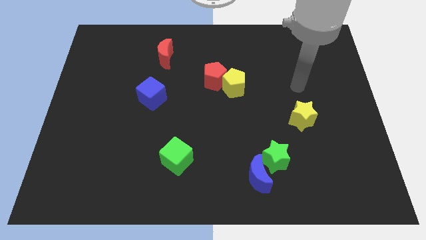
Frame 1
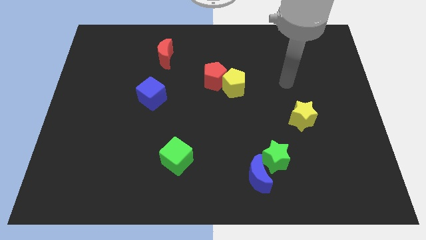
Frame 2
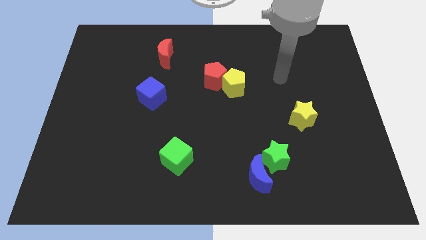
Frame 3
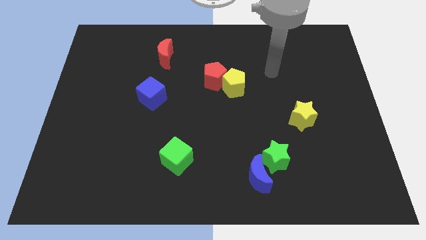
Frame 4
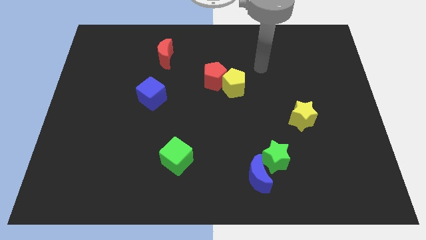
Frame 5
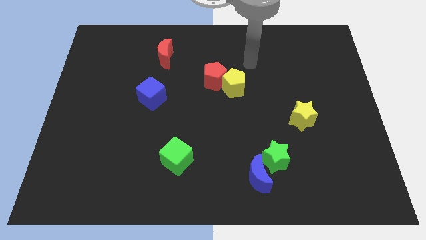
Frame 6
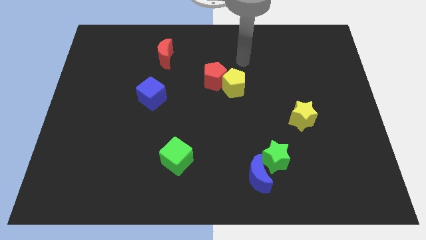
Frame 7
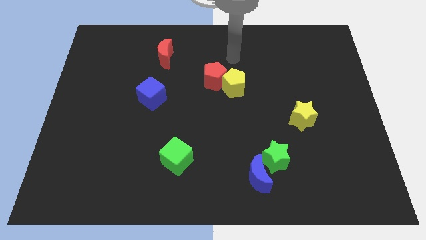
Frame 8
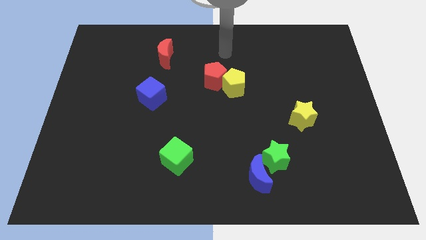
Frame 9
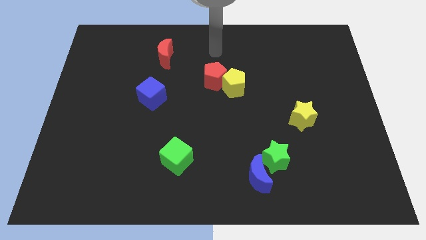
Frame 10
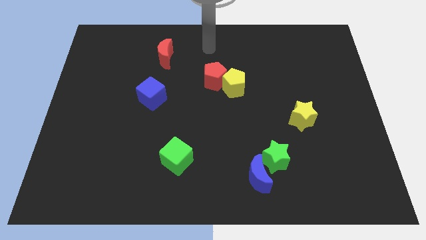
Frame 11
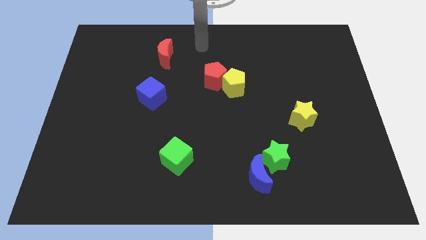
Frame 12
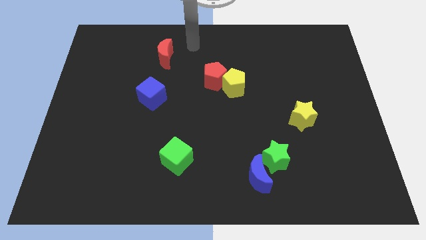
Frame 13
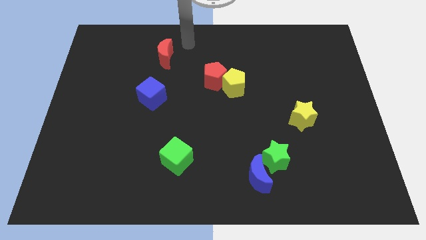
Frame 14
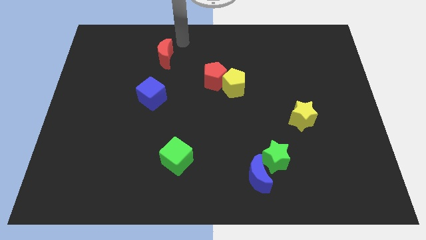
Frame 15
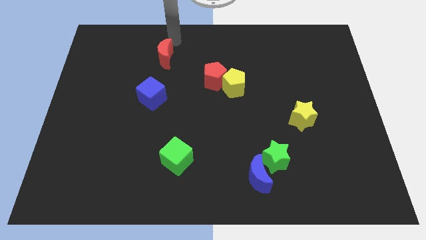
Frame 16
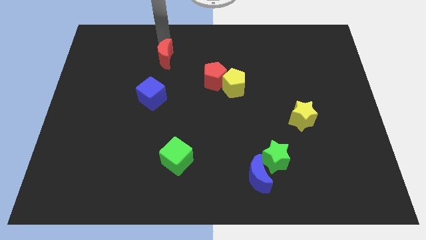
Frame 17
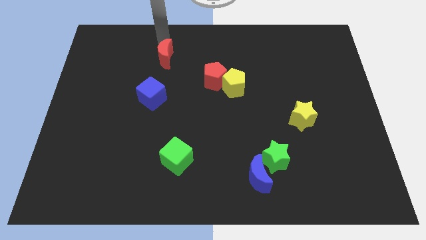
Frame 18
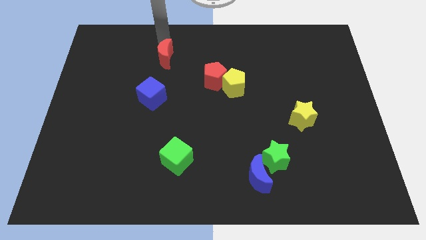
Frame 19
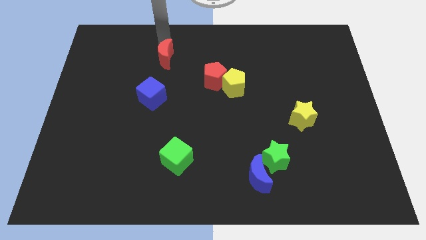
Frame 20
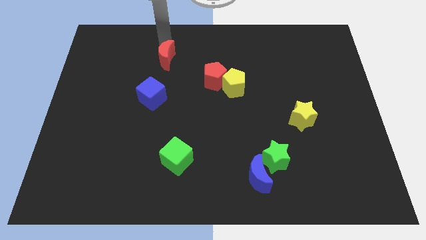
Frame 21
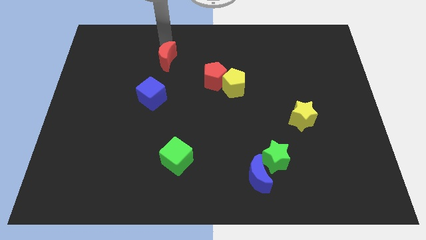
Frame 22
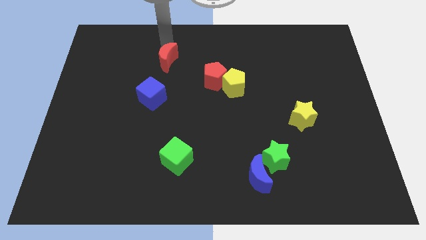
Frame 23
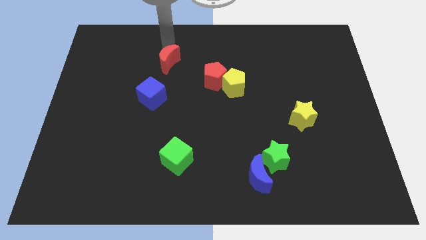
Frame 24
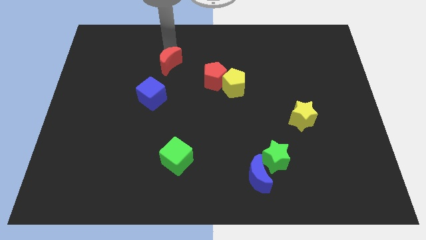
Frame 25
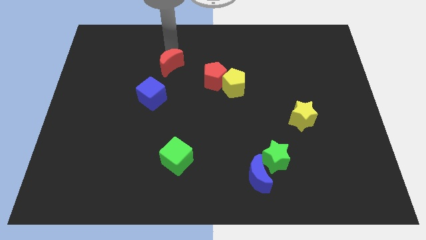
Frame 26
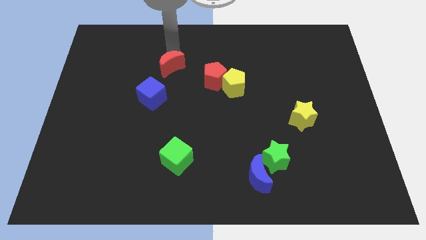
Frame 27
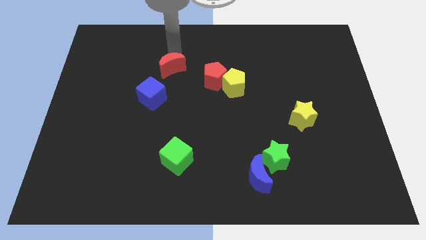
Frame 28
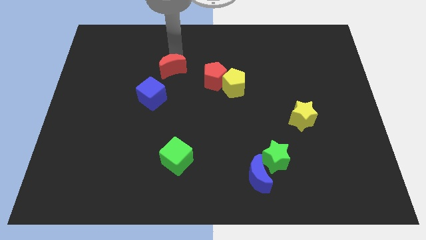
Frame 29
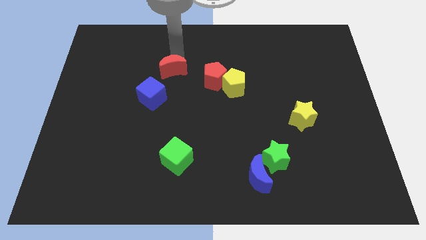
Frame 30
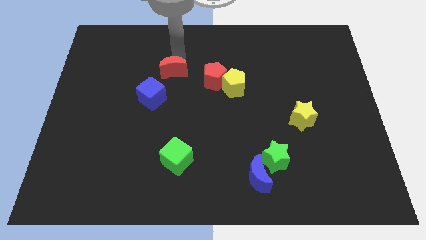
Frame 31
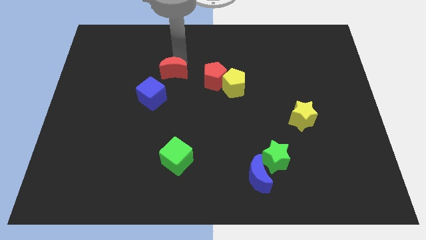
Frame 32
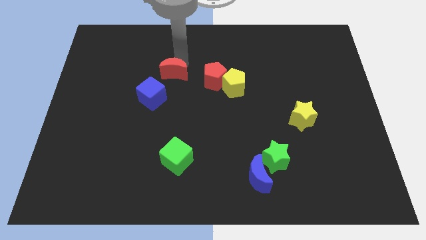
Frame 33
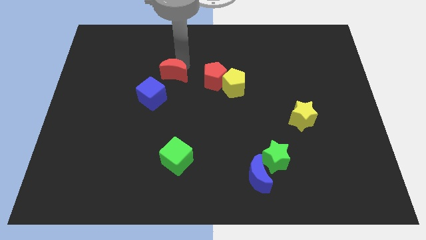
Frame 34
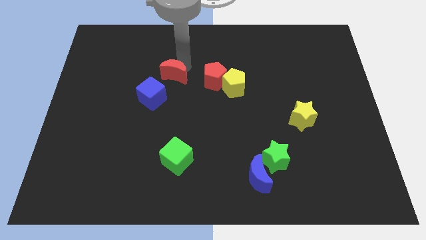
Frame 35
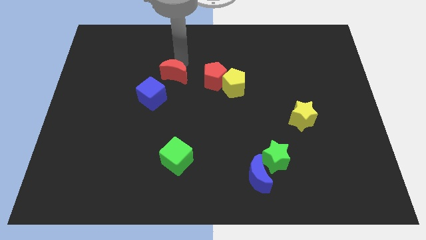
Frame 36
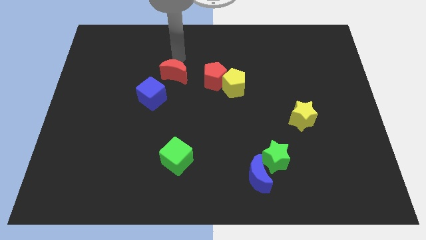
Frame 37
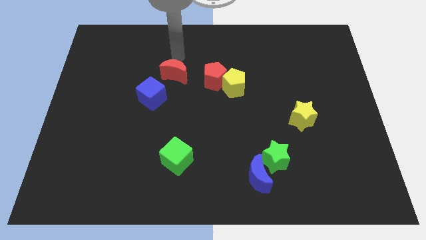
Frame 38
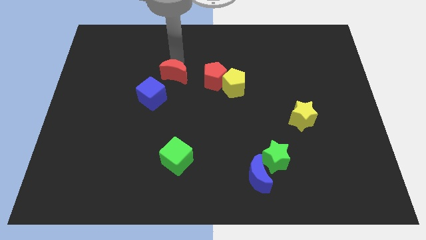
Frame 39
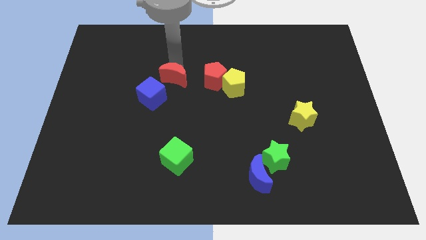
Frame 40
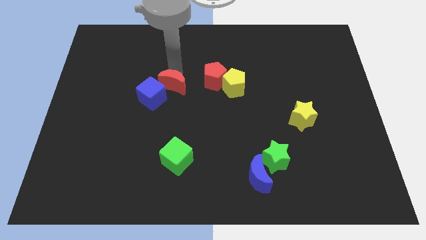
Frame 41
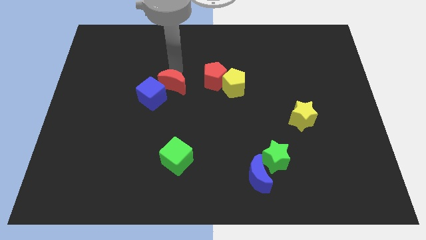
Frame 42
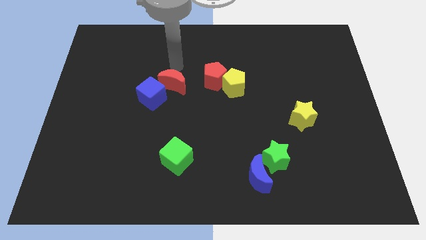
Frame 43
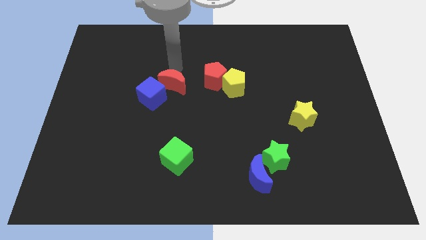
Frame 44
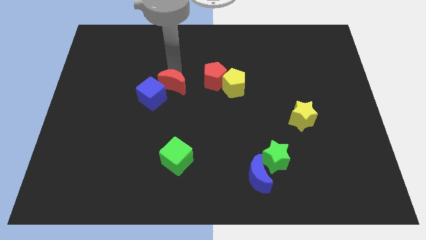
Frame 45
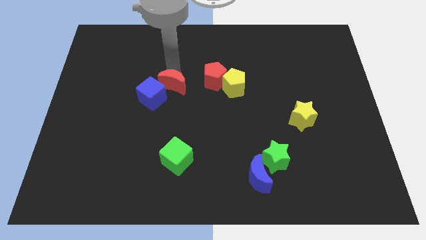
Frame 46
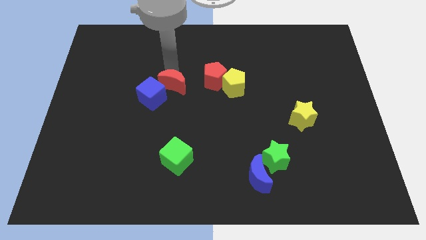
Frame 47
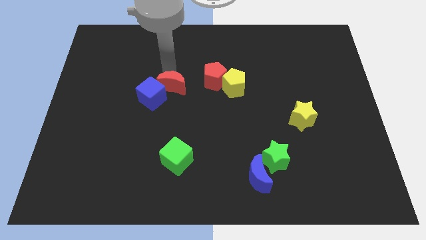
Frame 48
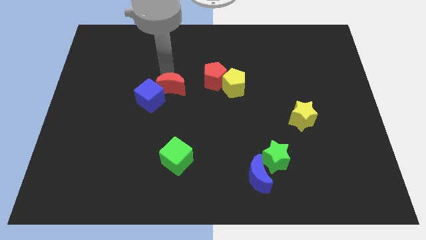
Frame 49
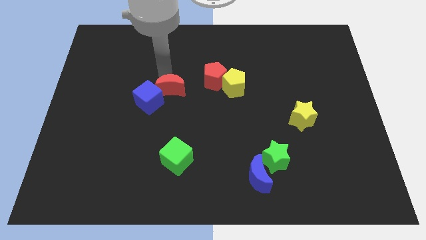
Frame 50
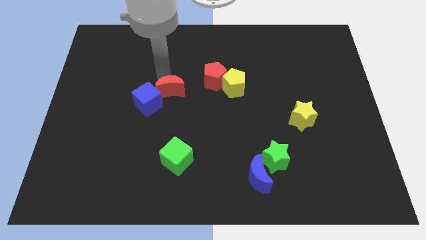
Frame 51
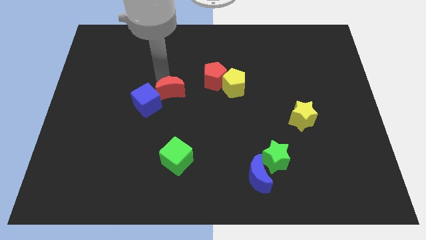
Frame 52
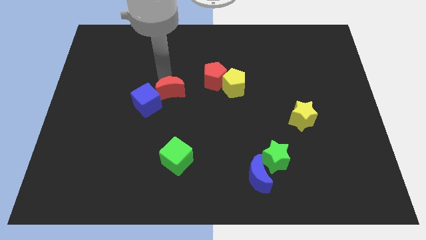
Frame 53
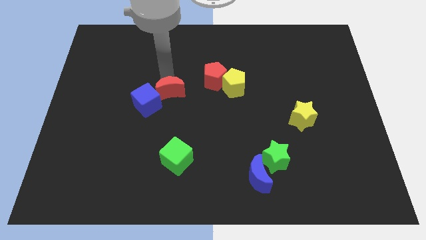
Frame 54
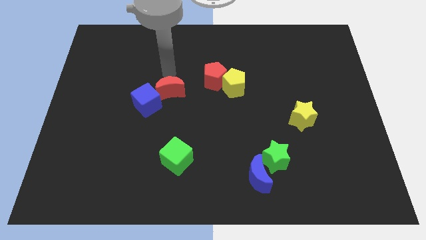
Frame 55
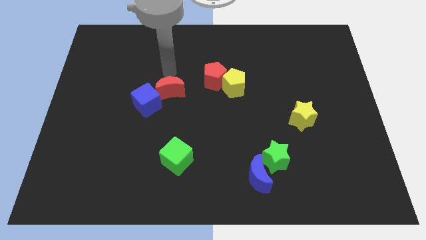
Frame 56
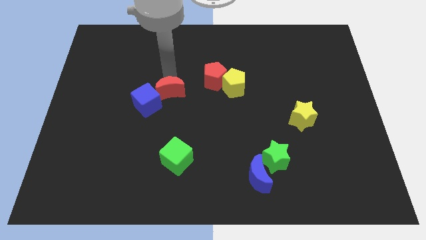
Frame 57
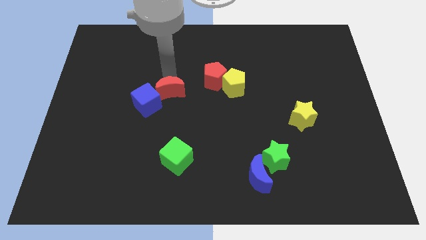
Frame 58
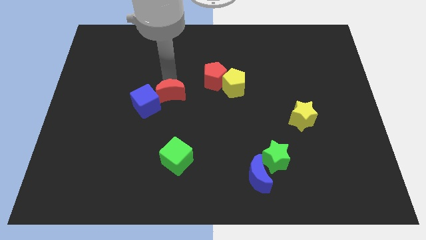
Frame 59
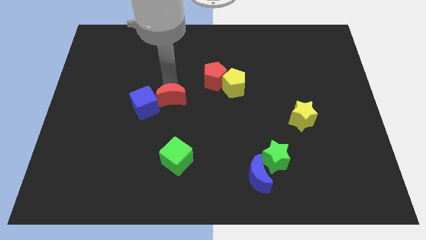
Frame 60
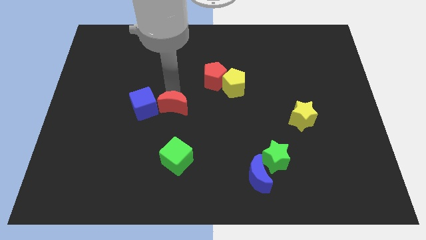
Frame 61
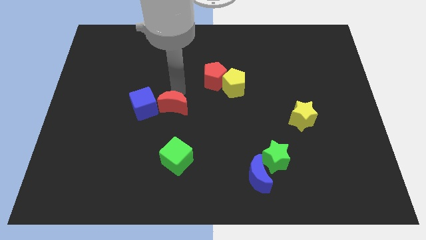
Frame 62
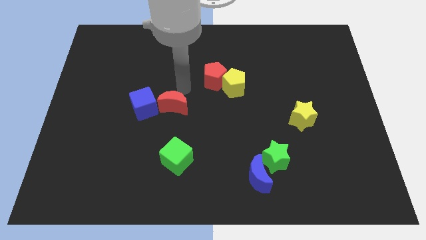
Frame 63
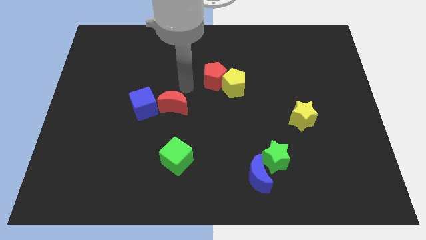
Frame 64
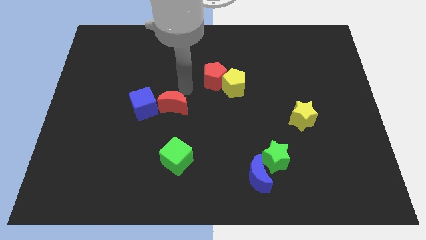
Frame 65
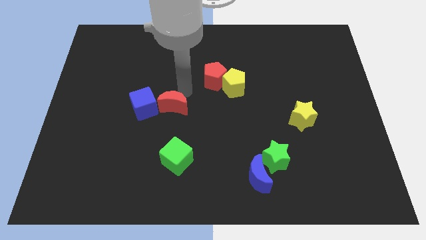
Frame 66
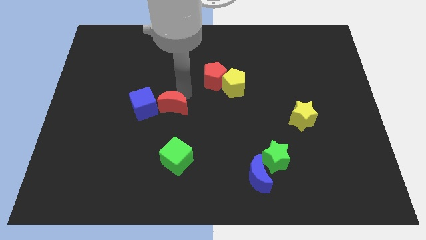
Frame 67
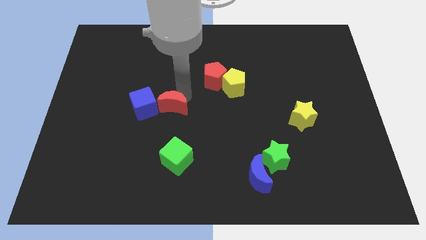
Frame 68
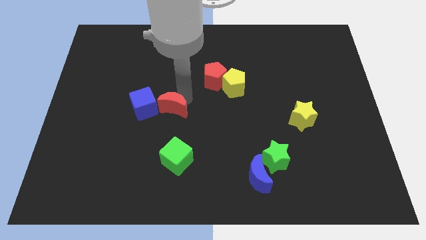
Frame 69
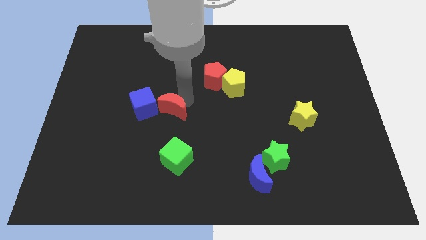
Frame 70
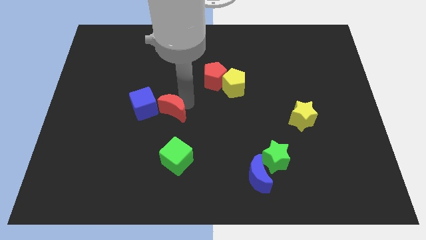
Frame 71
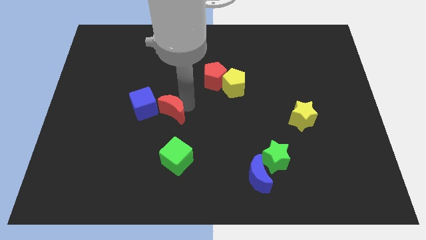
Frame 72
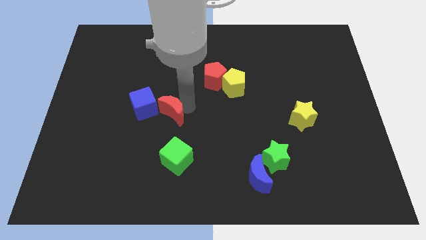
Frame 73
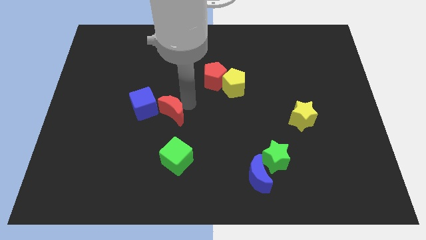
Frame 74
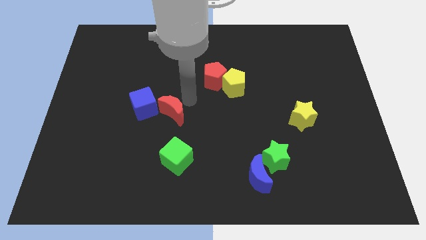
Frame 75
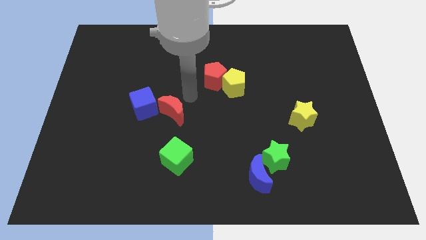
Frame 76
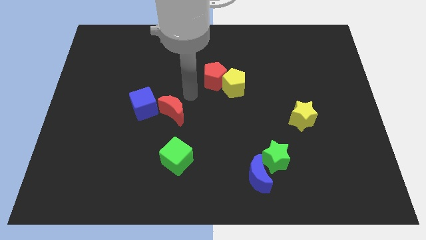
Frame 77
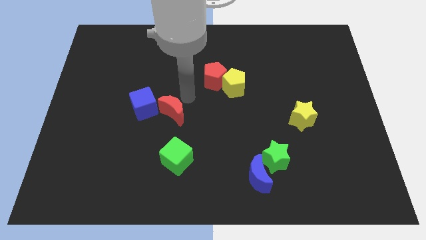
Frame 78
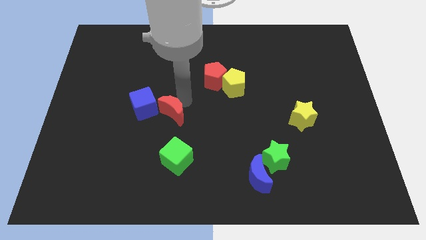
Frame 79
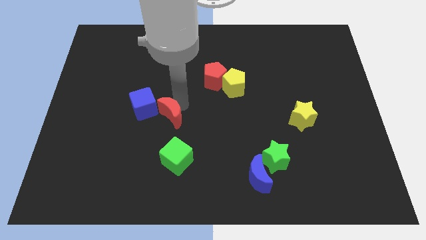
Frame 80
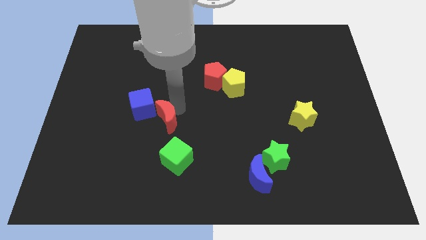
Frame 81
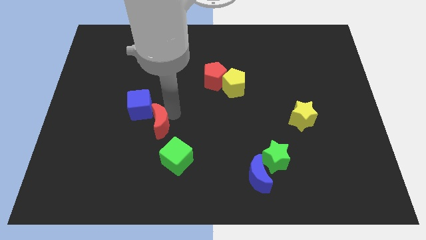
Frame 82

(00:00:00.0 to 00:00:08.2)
move the red moon diagonally up and to the left of the green cube
